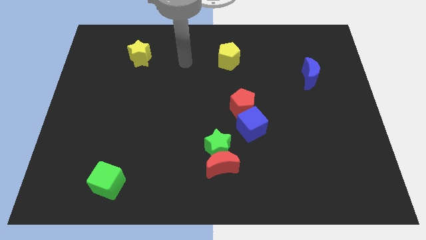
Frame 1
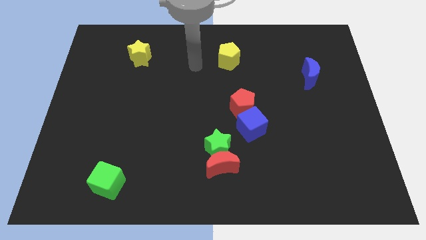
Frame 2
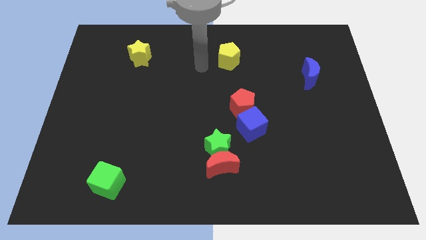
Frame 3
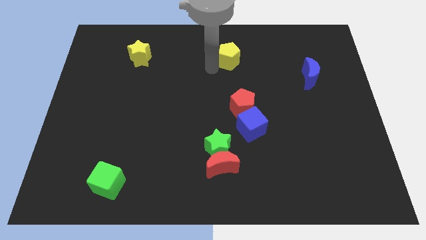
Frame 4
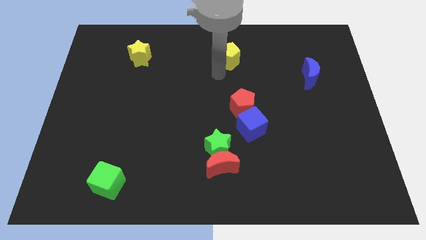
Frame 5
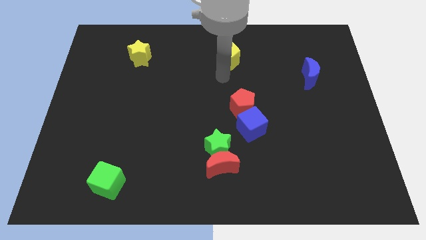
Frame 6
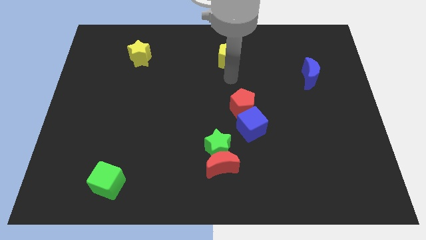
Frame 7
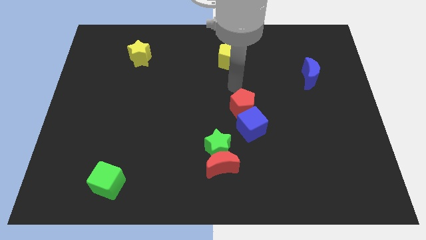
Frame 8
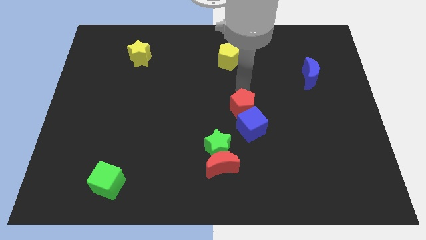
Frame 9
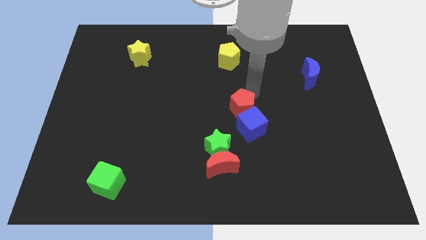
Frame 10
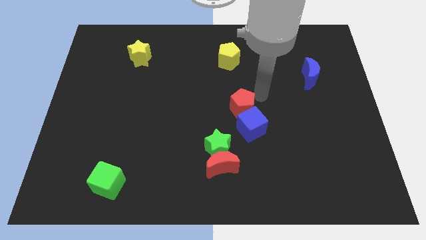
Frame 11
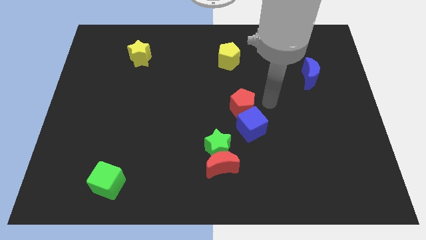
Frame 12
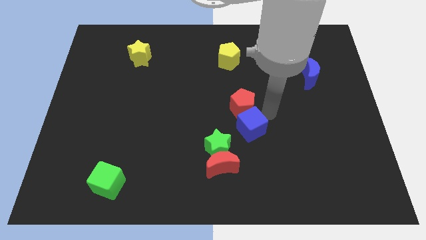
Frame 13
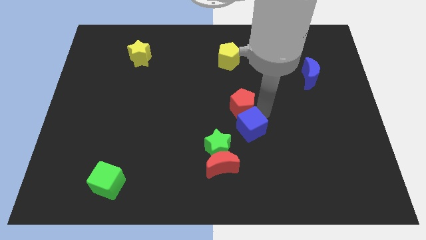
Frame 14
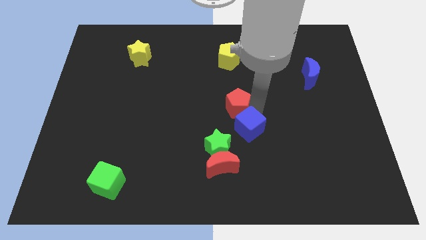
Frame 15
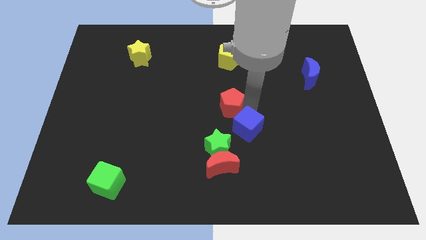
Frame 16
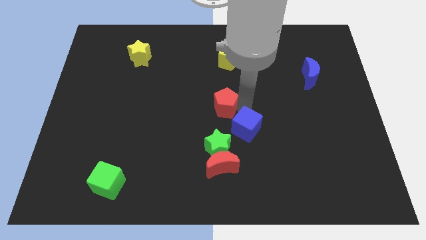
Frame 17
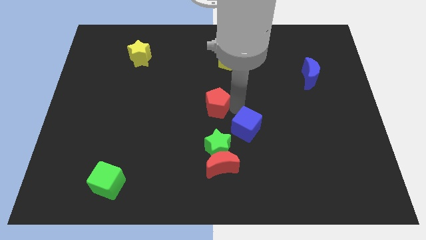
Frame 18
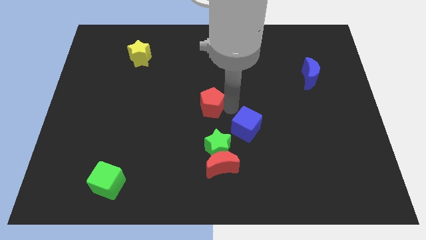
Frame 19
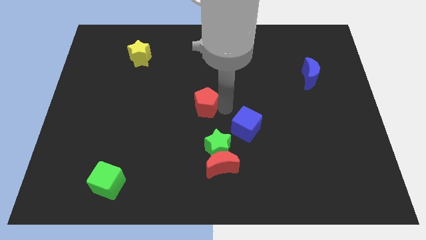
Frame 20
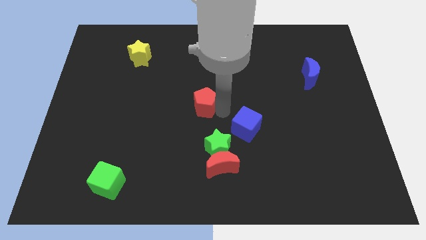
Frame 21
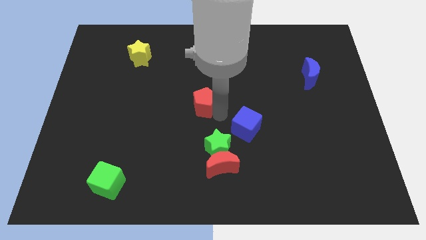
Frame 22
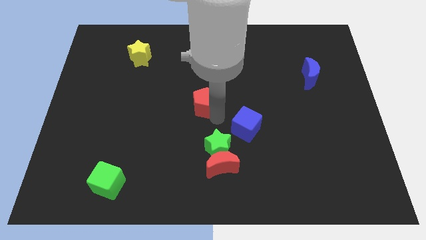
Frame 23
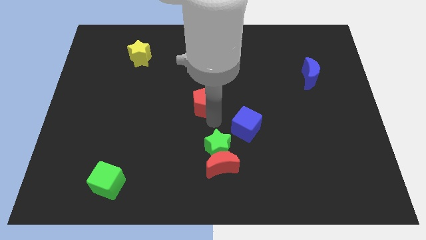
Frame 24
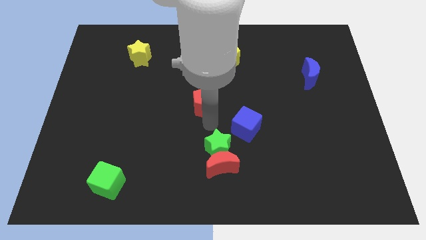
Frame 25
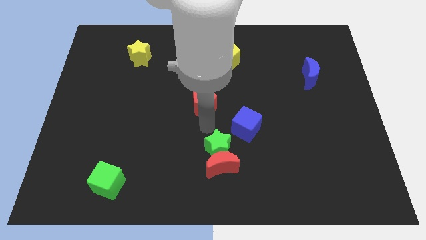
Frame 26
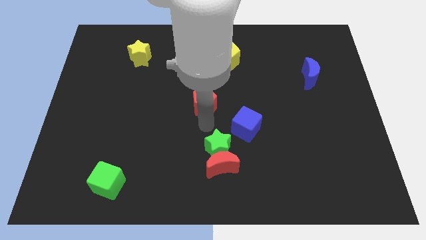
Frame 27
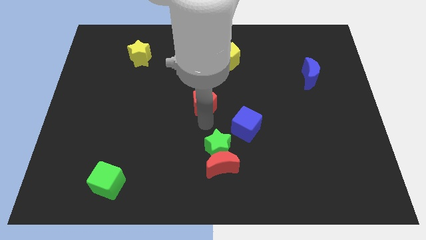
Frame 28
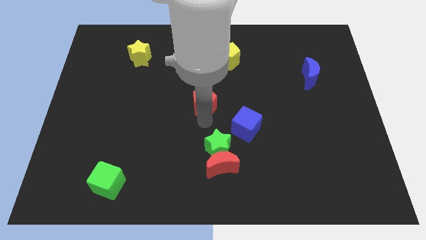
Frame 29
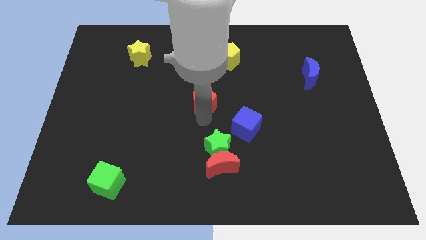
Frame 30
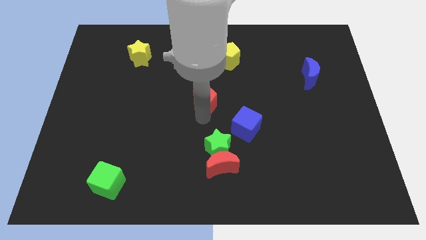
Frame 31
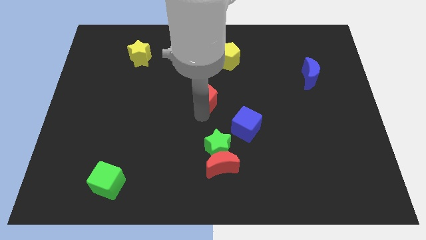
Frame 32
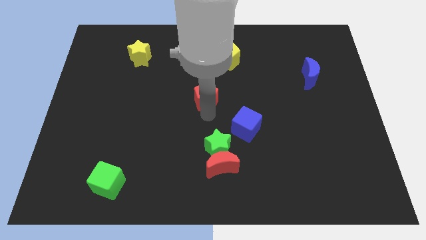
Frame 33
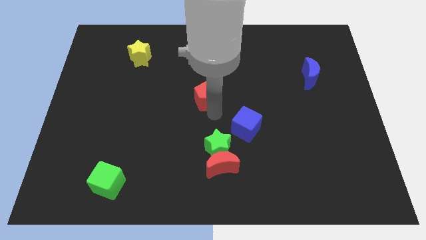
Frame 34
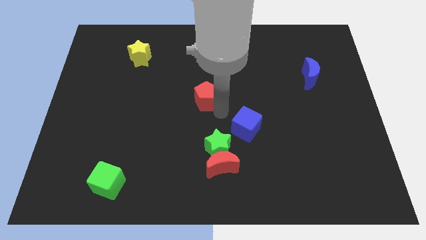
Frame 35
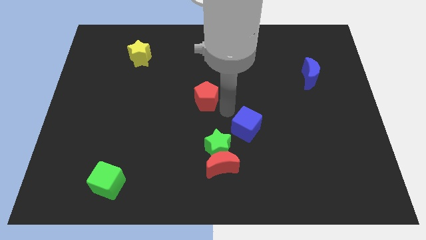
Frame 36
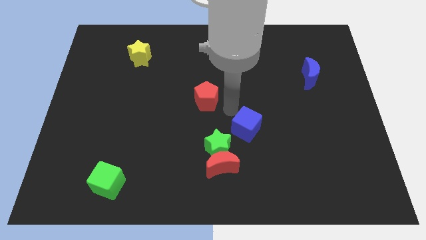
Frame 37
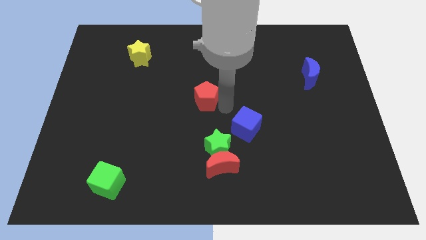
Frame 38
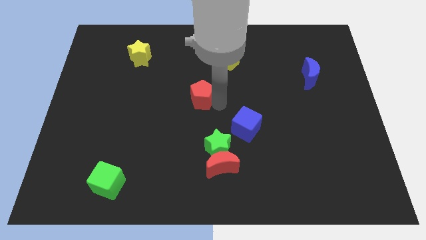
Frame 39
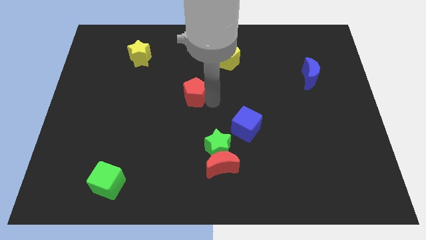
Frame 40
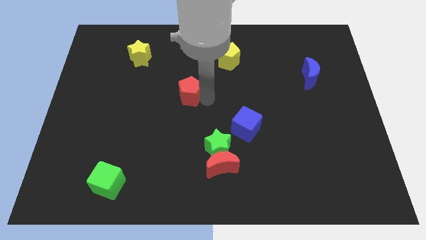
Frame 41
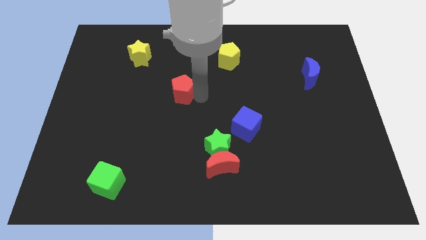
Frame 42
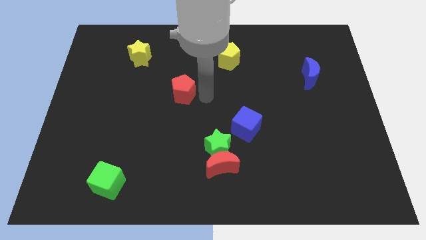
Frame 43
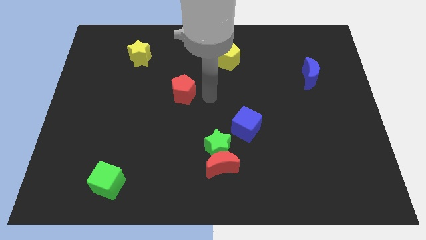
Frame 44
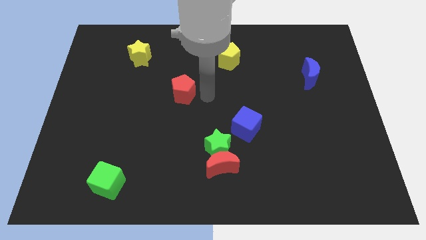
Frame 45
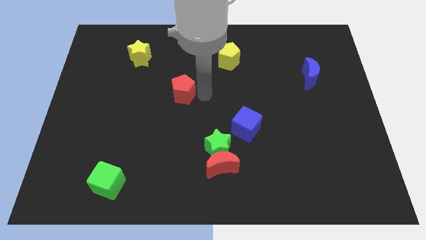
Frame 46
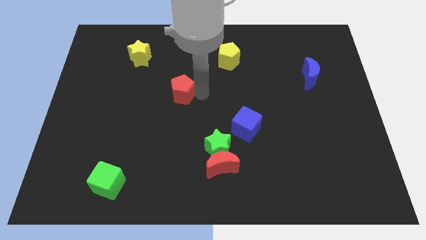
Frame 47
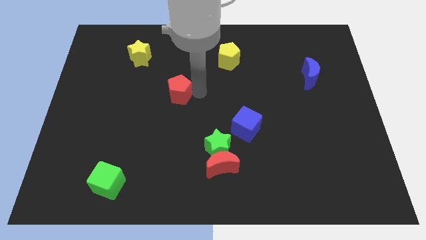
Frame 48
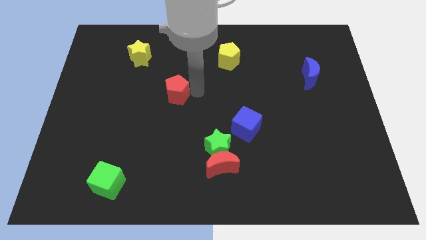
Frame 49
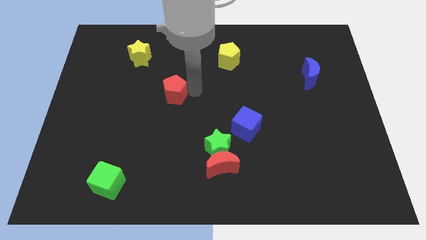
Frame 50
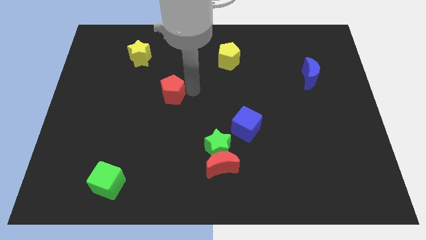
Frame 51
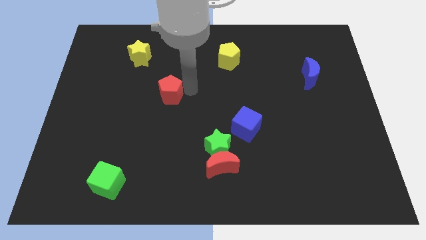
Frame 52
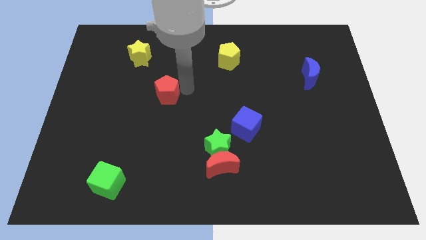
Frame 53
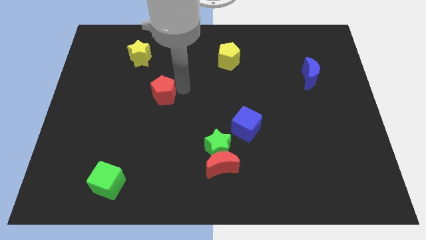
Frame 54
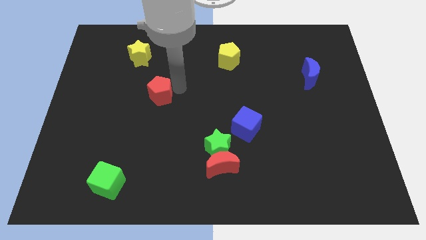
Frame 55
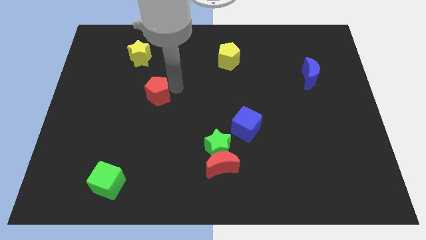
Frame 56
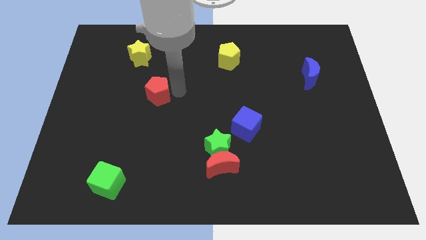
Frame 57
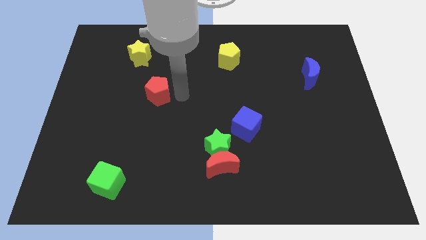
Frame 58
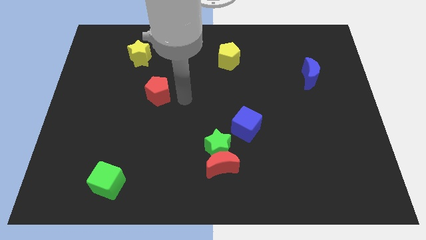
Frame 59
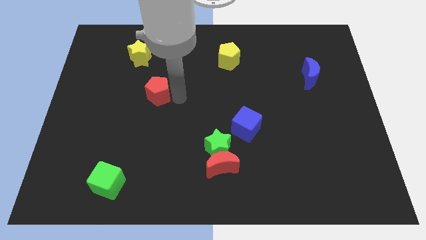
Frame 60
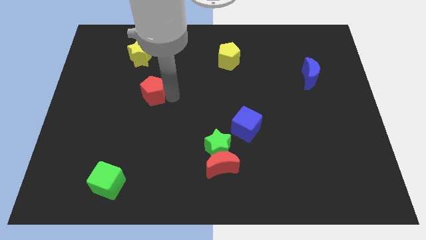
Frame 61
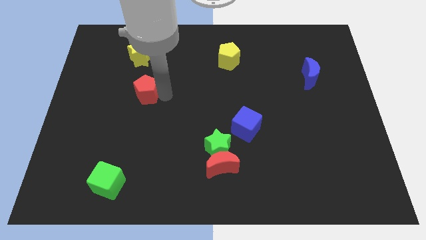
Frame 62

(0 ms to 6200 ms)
slide the red pentagon to the bottom of the yellow star

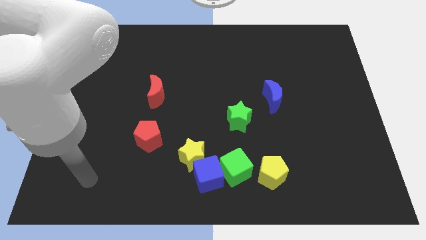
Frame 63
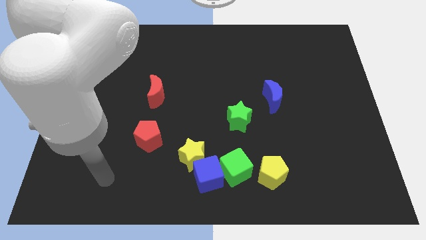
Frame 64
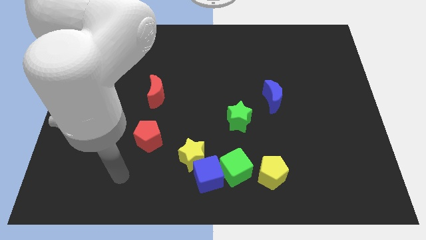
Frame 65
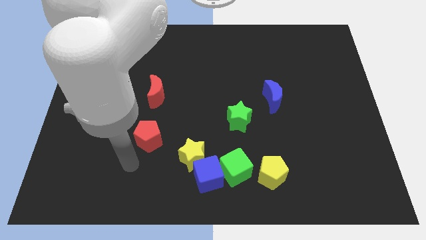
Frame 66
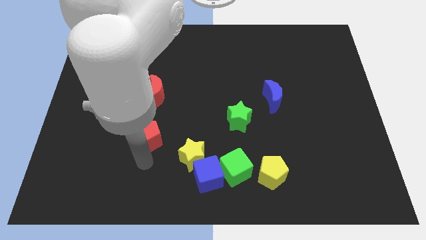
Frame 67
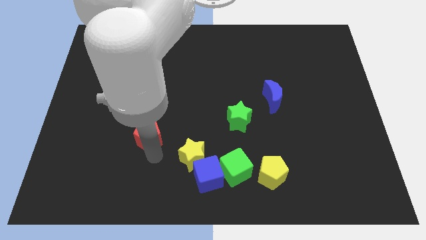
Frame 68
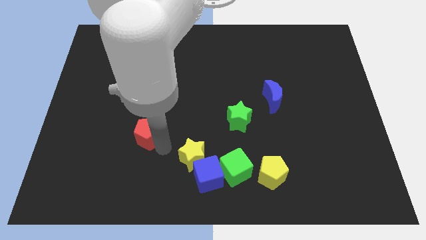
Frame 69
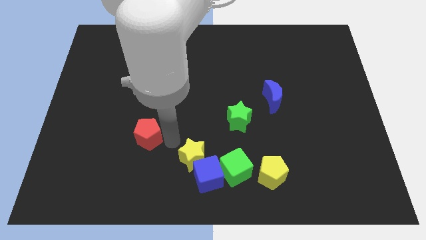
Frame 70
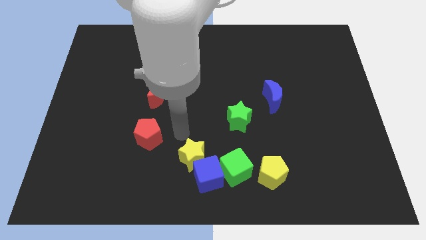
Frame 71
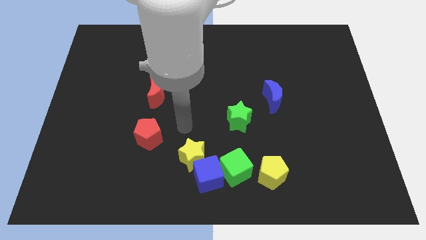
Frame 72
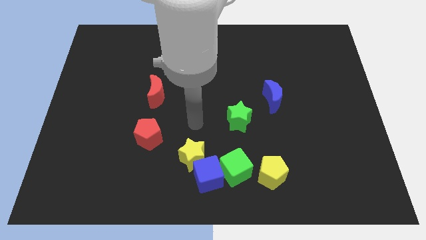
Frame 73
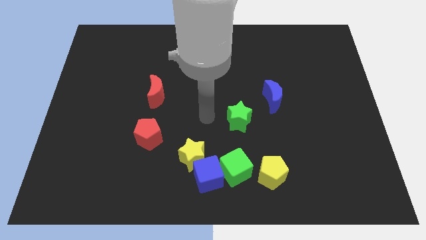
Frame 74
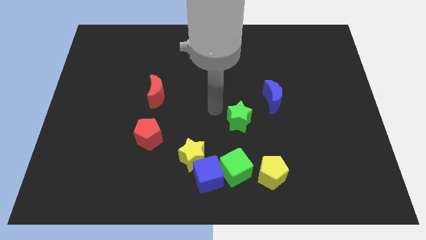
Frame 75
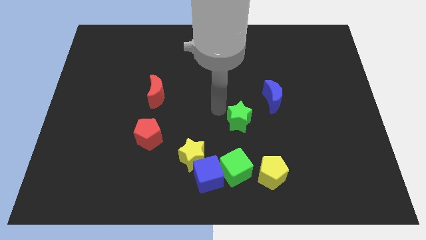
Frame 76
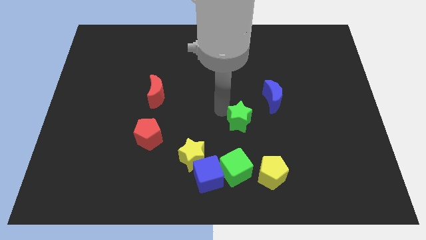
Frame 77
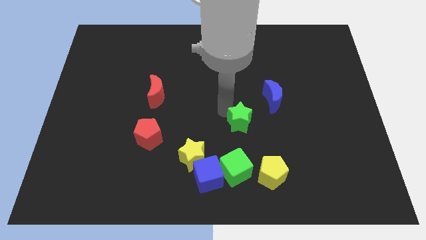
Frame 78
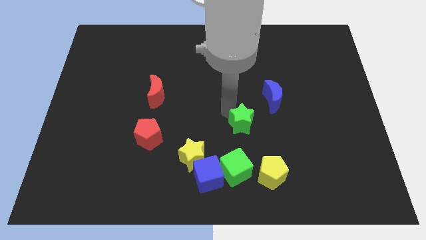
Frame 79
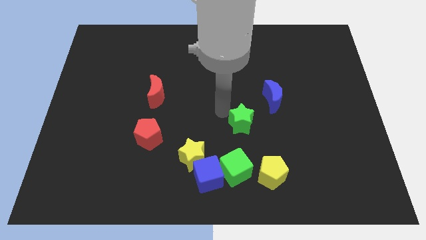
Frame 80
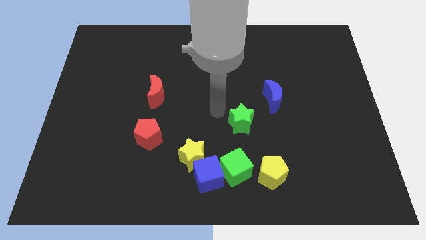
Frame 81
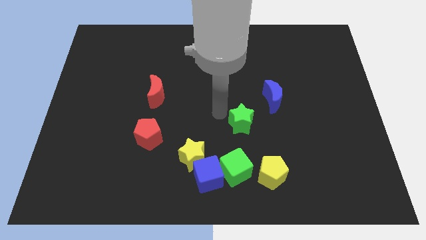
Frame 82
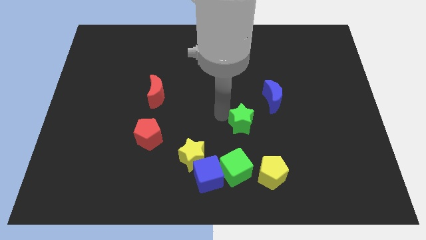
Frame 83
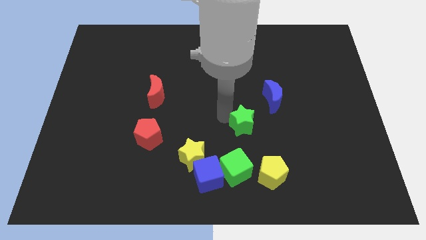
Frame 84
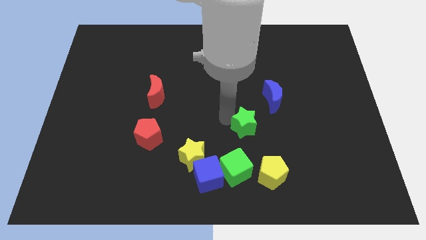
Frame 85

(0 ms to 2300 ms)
put the green star above the yellow pentagon
